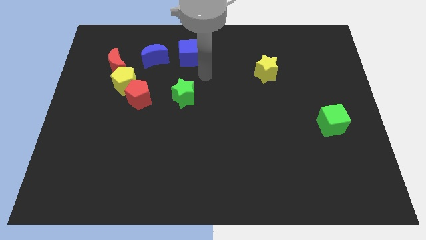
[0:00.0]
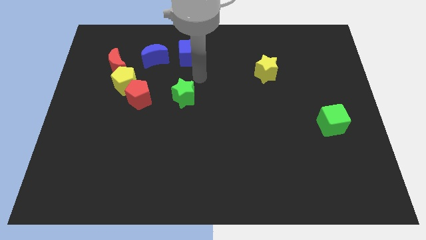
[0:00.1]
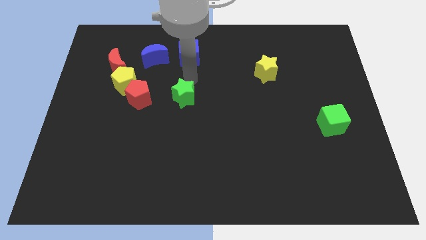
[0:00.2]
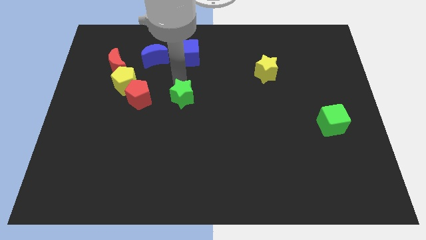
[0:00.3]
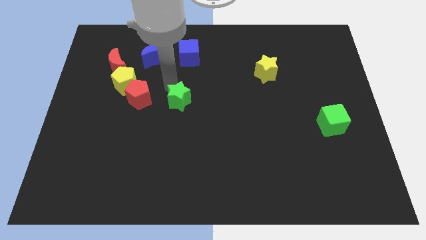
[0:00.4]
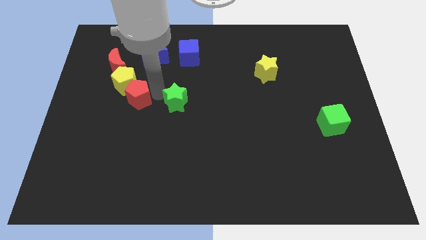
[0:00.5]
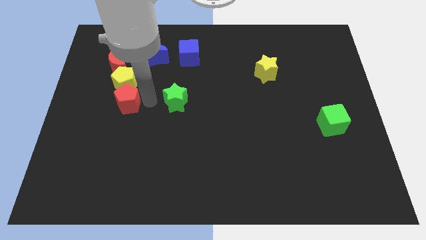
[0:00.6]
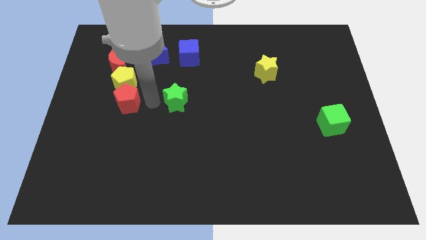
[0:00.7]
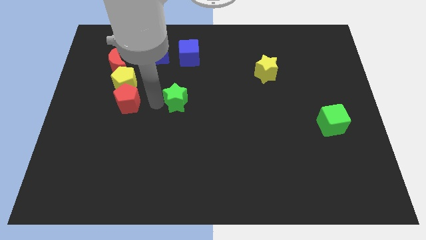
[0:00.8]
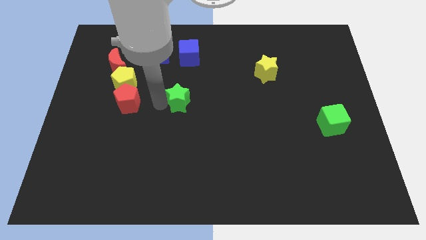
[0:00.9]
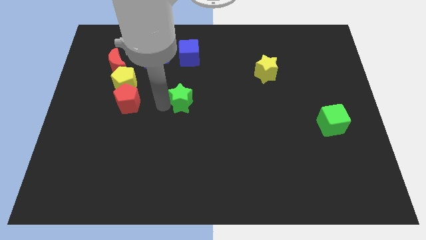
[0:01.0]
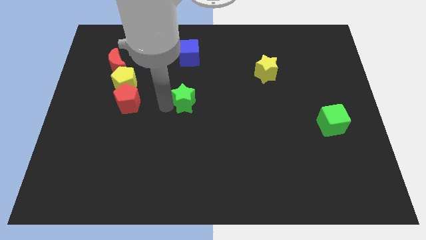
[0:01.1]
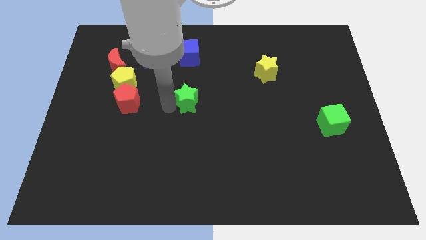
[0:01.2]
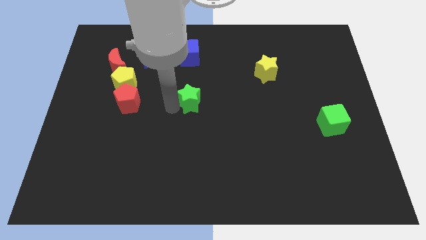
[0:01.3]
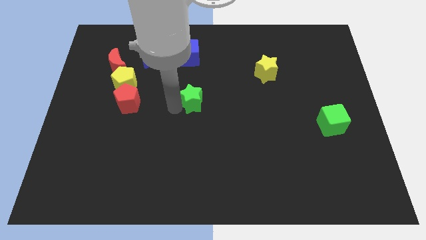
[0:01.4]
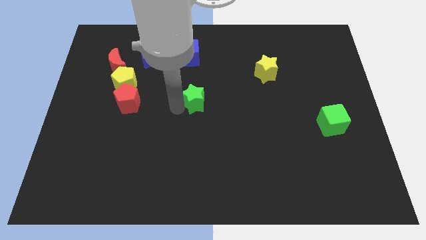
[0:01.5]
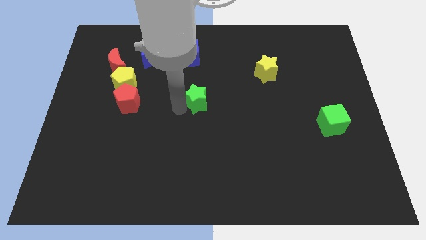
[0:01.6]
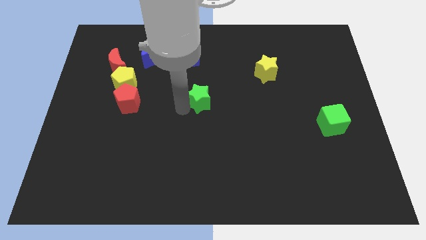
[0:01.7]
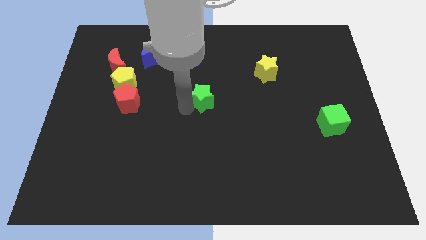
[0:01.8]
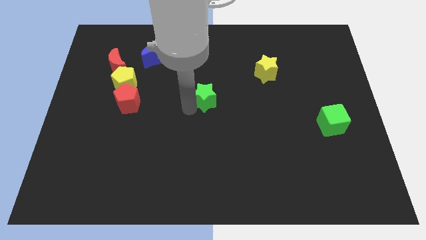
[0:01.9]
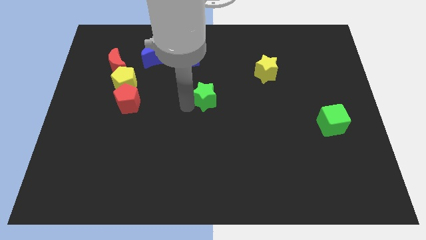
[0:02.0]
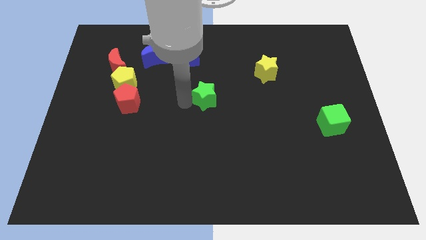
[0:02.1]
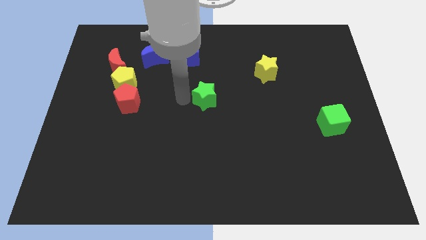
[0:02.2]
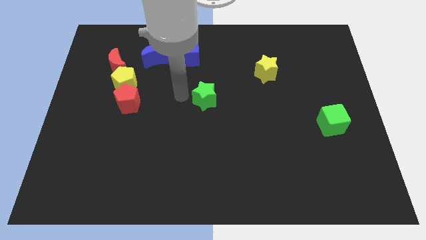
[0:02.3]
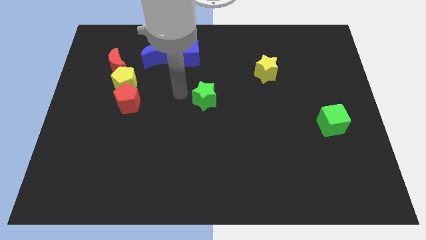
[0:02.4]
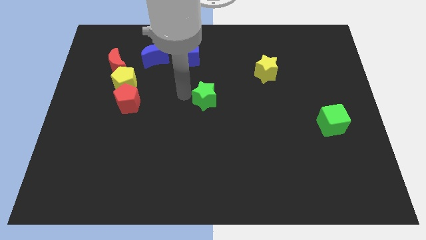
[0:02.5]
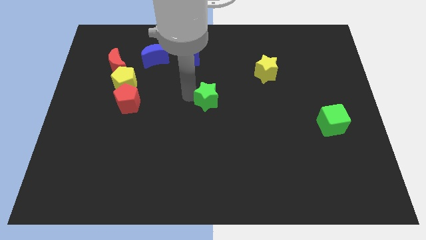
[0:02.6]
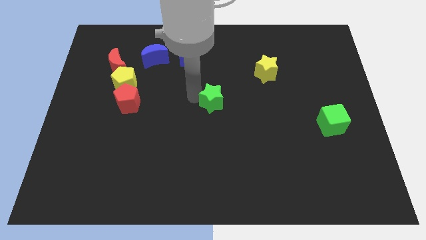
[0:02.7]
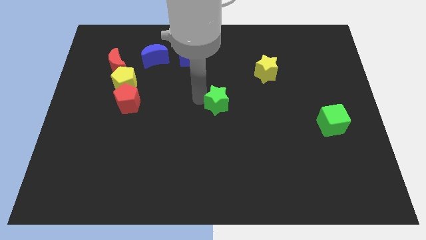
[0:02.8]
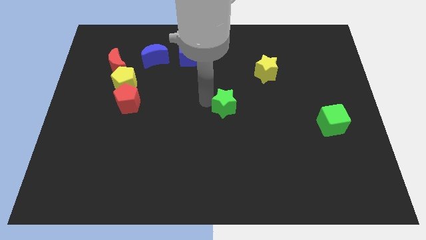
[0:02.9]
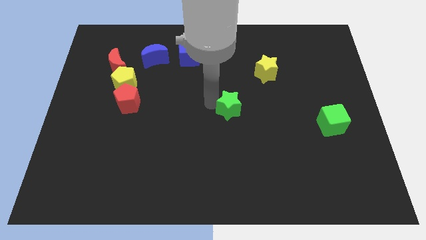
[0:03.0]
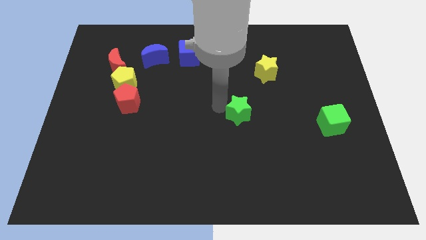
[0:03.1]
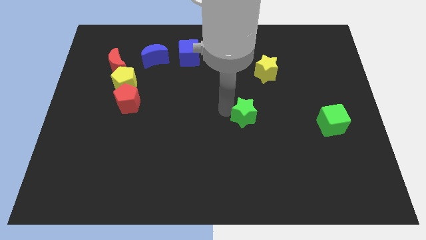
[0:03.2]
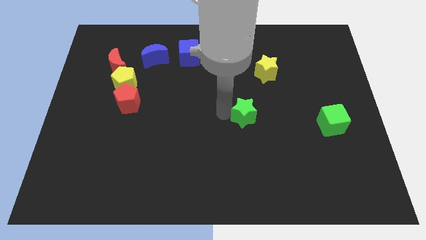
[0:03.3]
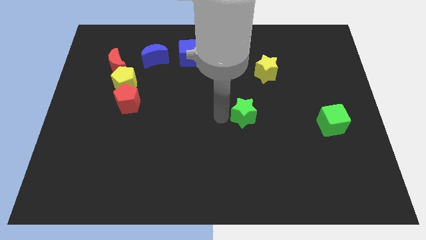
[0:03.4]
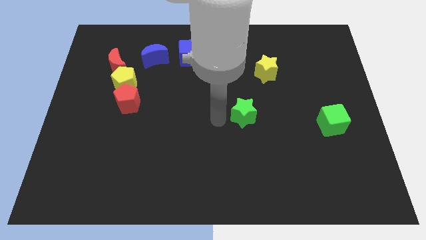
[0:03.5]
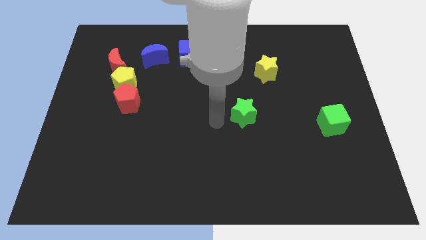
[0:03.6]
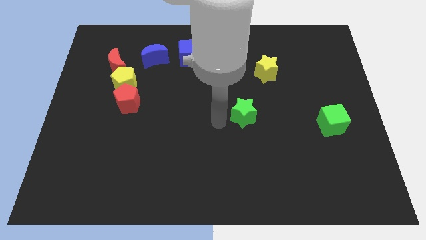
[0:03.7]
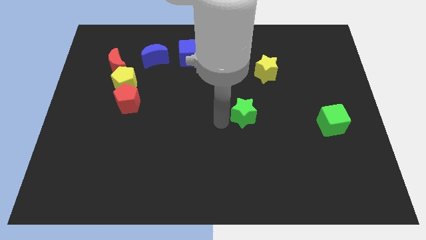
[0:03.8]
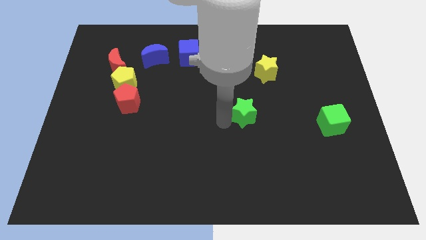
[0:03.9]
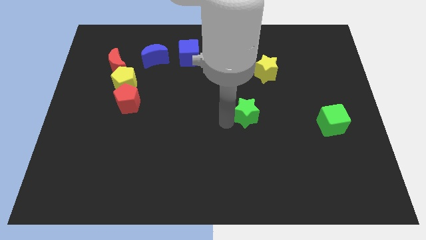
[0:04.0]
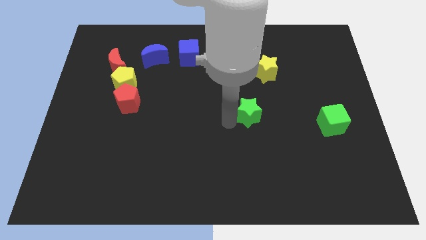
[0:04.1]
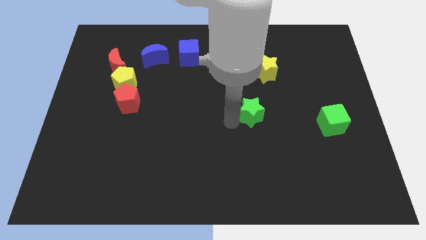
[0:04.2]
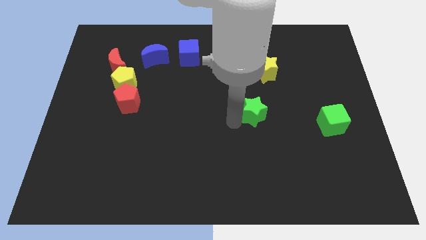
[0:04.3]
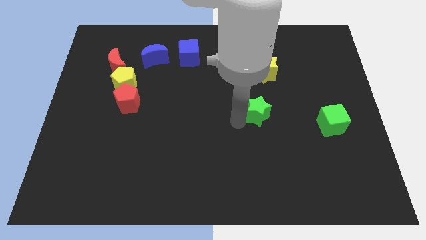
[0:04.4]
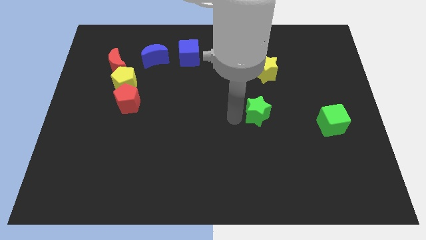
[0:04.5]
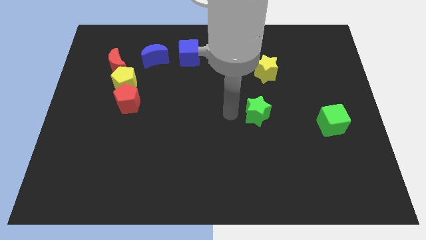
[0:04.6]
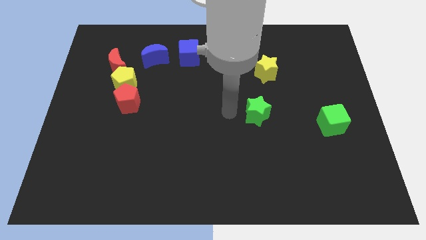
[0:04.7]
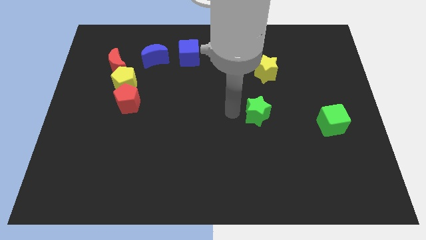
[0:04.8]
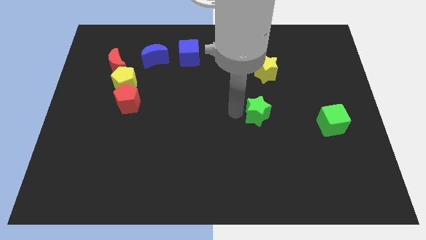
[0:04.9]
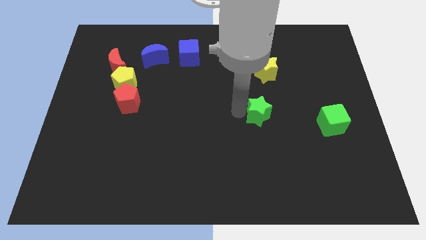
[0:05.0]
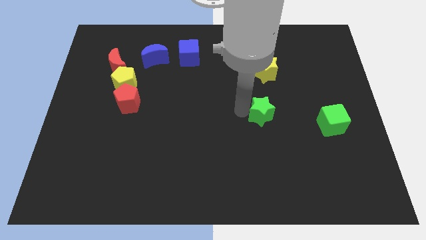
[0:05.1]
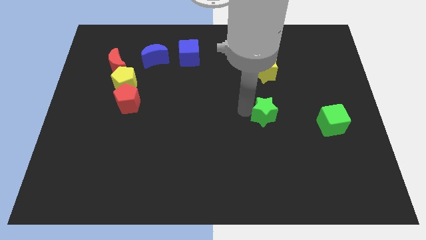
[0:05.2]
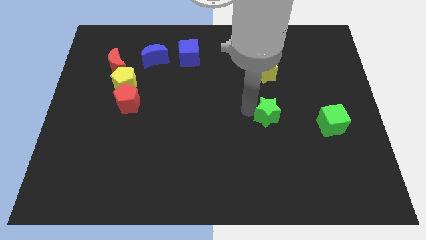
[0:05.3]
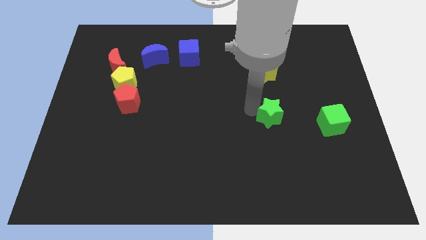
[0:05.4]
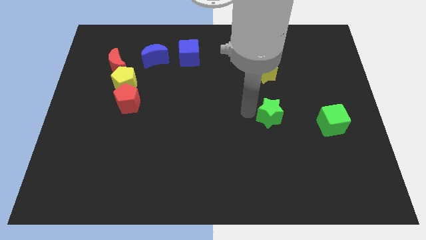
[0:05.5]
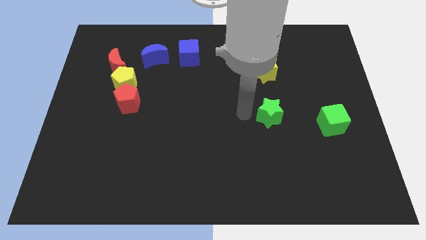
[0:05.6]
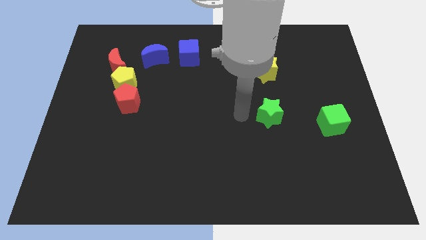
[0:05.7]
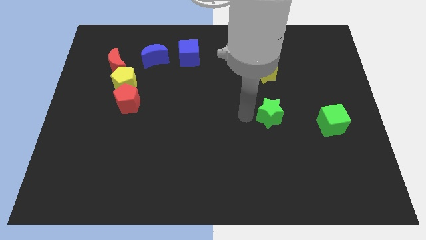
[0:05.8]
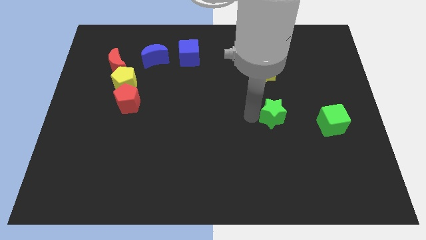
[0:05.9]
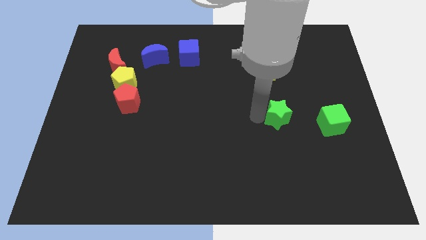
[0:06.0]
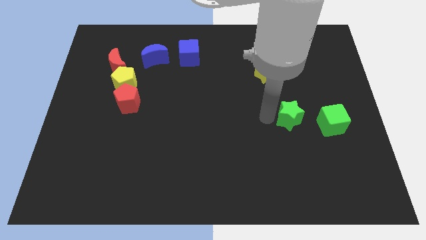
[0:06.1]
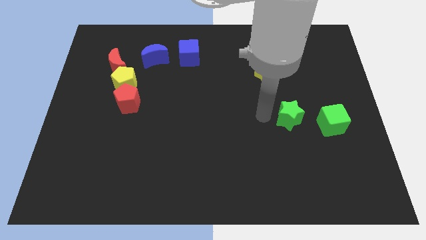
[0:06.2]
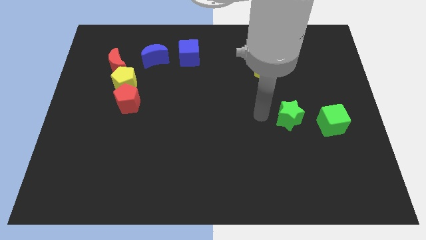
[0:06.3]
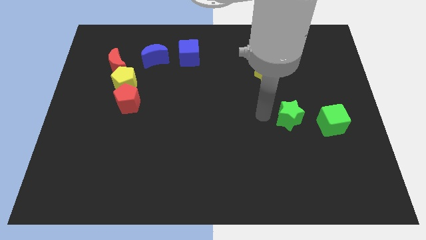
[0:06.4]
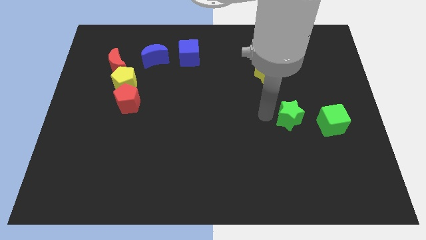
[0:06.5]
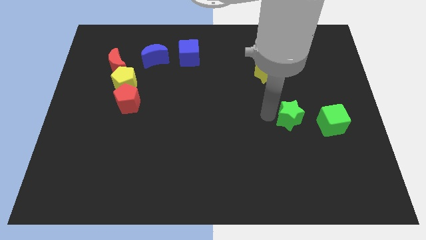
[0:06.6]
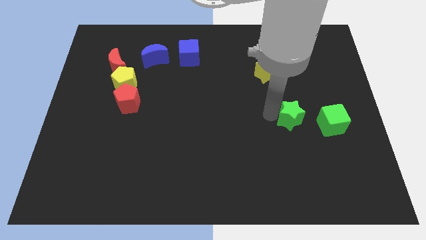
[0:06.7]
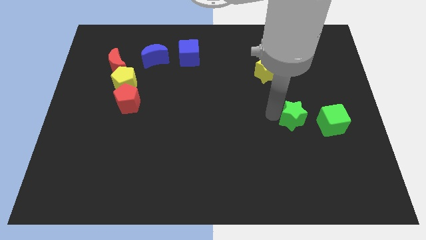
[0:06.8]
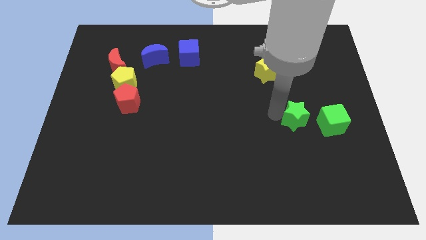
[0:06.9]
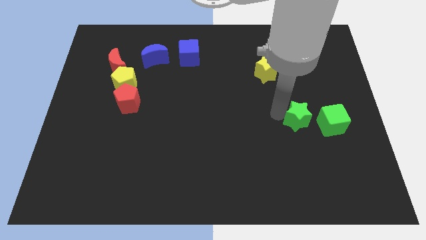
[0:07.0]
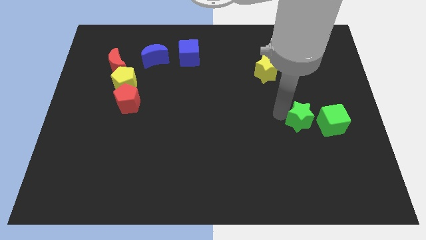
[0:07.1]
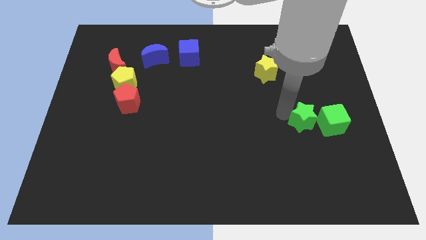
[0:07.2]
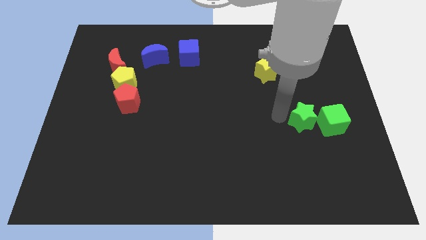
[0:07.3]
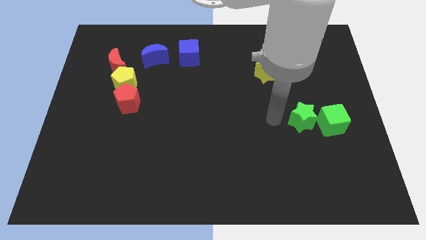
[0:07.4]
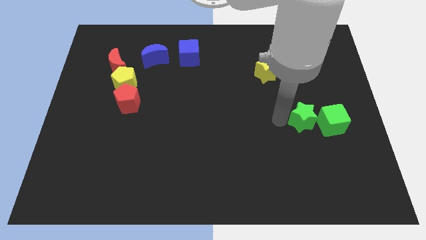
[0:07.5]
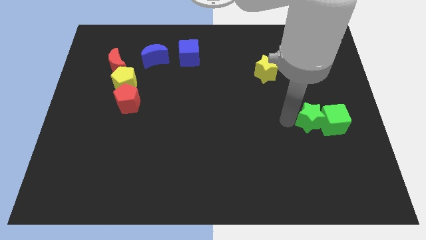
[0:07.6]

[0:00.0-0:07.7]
slide the green star to the green cube
